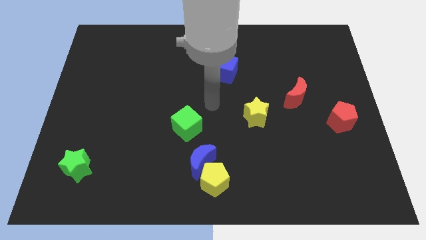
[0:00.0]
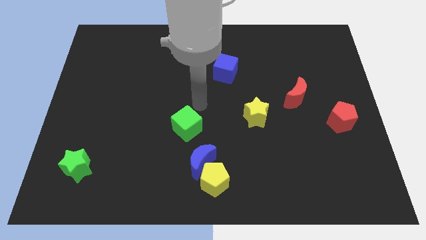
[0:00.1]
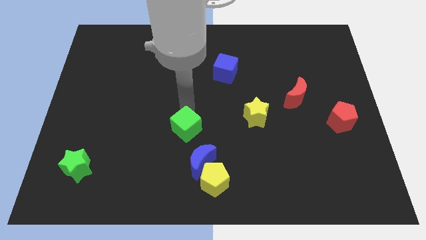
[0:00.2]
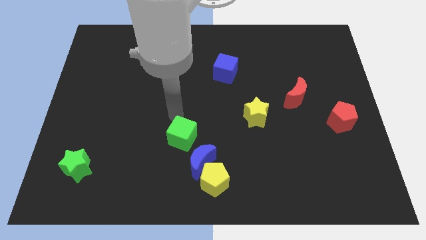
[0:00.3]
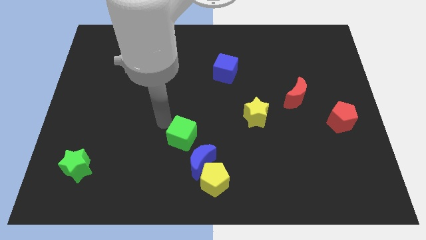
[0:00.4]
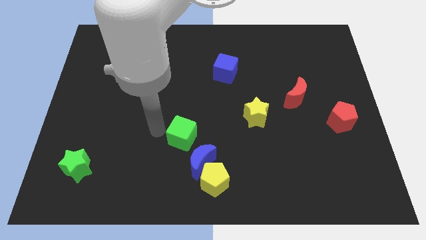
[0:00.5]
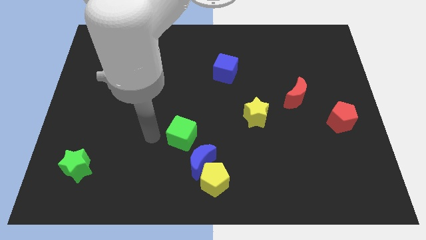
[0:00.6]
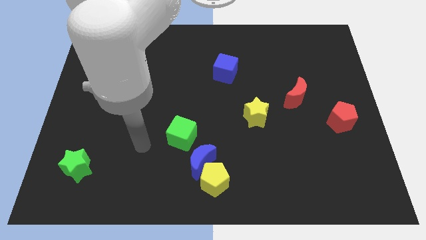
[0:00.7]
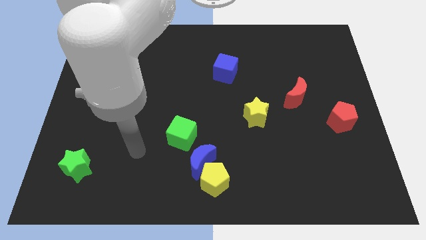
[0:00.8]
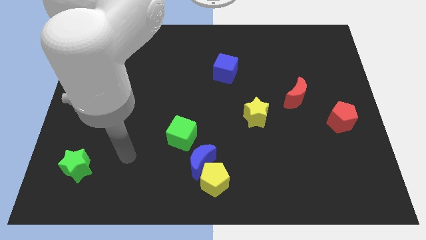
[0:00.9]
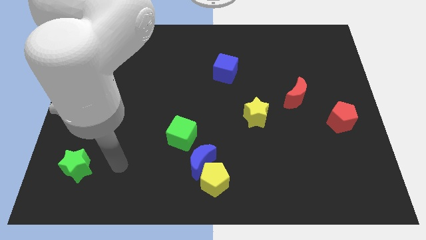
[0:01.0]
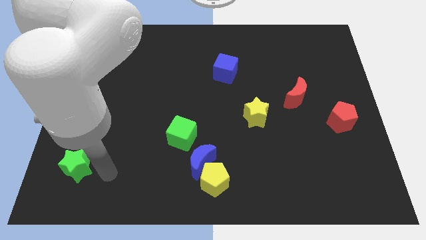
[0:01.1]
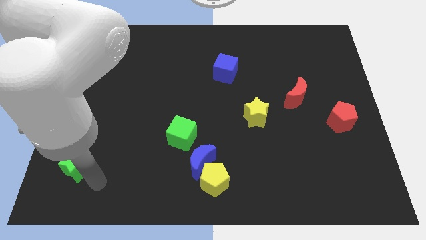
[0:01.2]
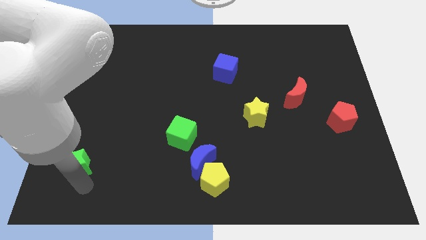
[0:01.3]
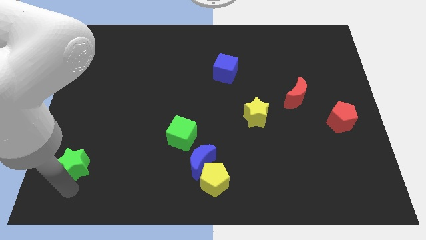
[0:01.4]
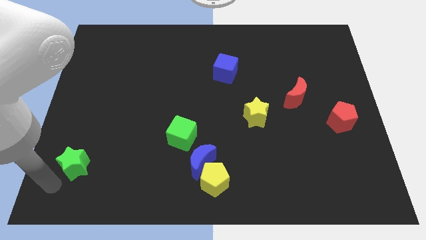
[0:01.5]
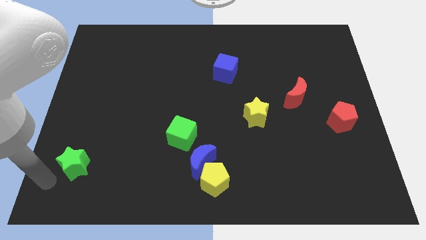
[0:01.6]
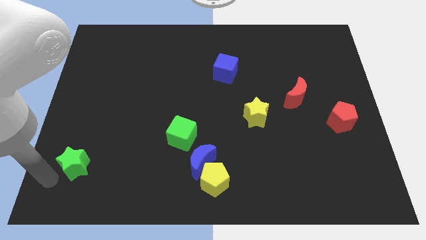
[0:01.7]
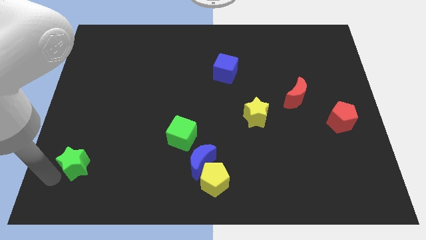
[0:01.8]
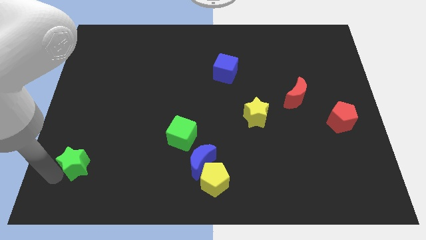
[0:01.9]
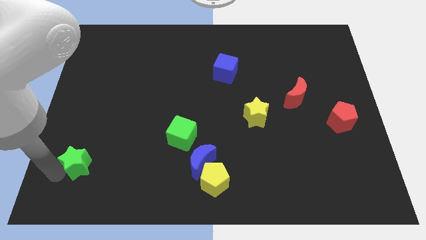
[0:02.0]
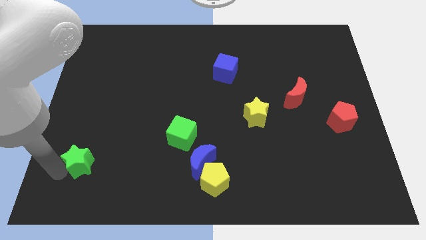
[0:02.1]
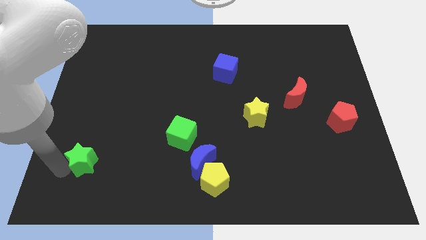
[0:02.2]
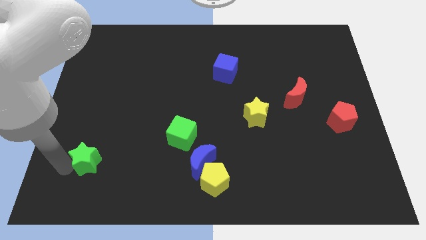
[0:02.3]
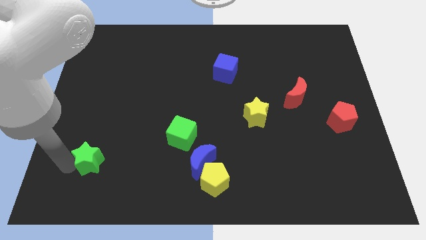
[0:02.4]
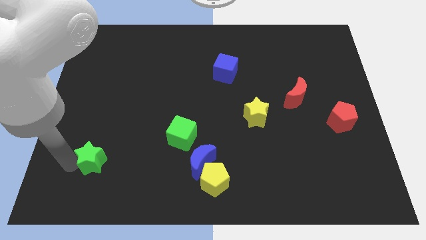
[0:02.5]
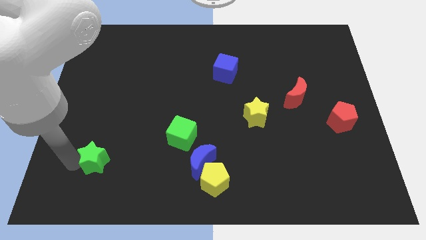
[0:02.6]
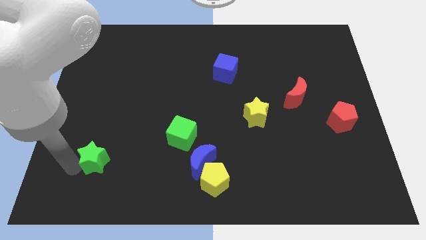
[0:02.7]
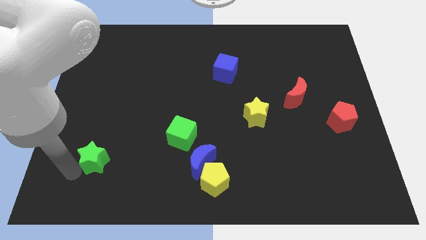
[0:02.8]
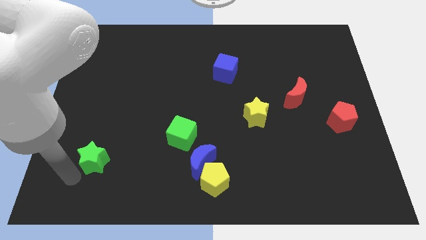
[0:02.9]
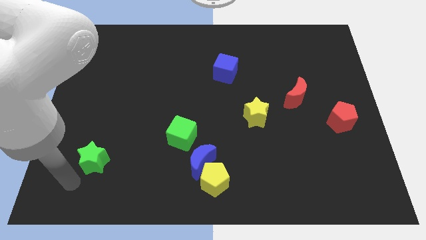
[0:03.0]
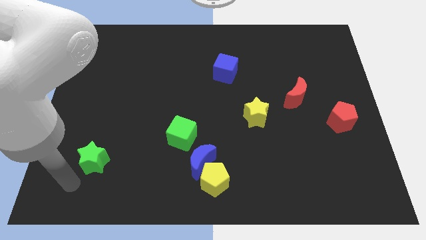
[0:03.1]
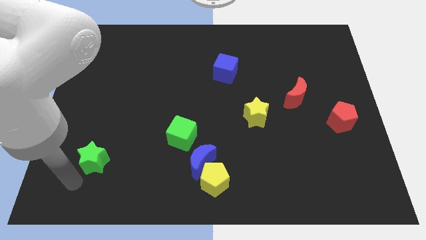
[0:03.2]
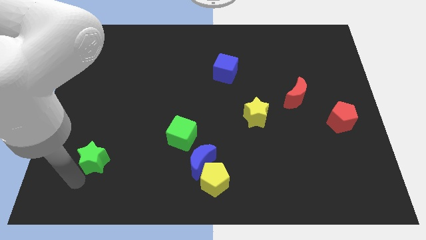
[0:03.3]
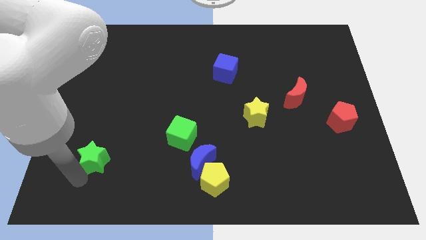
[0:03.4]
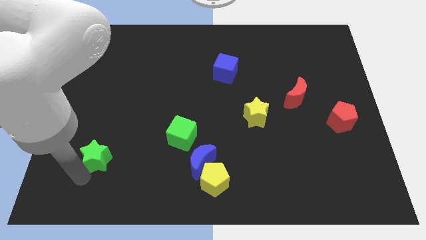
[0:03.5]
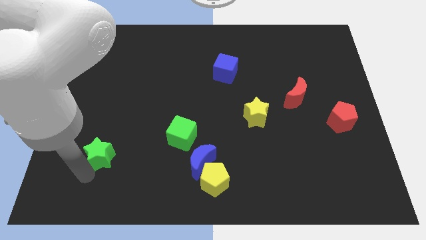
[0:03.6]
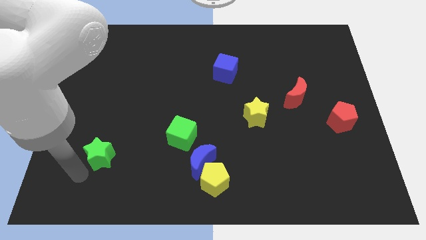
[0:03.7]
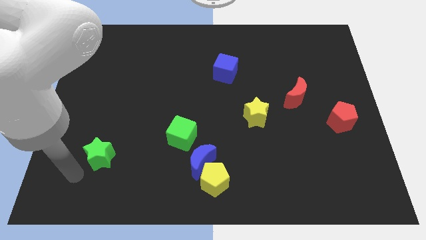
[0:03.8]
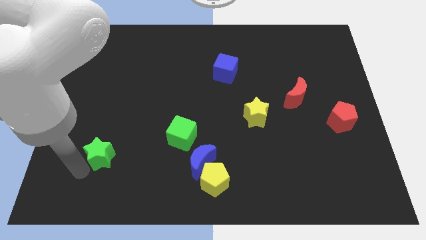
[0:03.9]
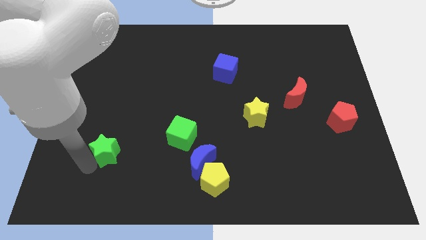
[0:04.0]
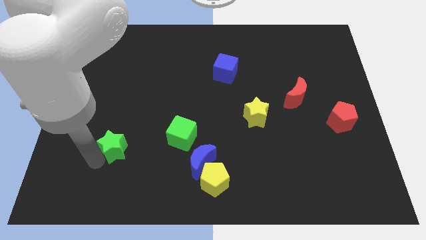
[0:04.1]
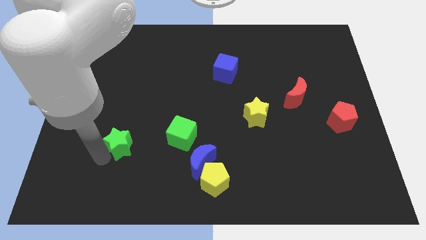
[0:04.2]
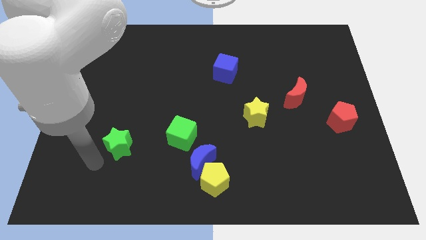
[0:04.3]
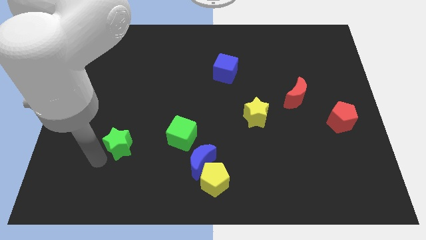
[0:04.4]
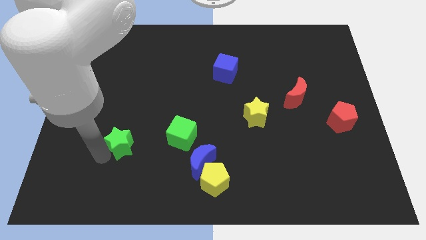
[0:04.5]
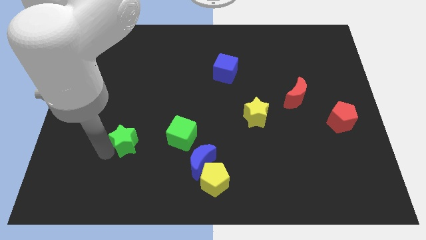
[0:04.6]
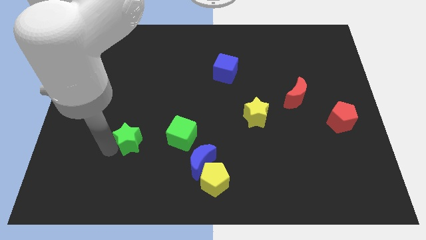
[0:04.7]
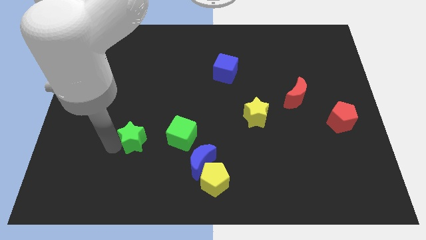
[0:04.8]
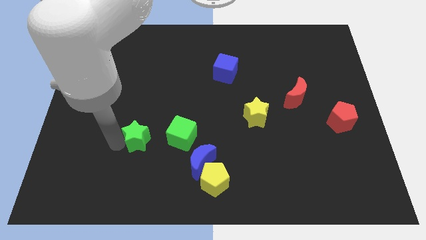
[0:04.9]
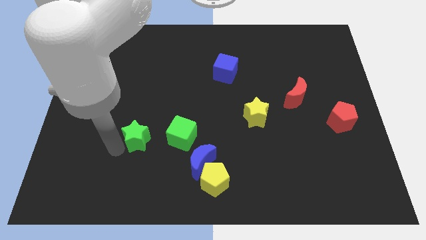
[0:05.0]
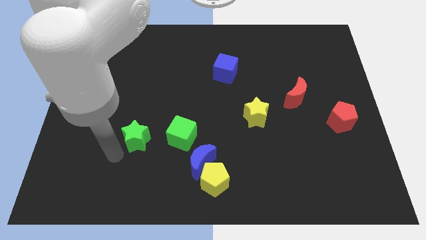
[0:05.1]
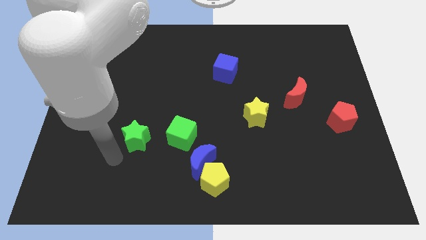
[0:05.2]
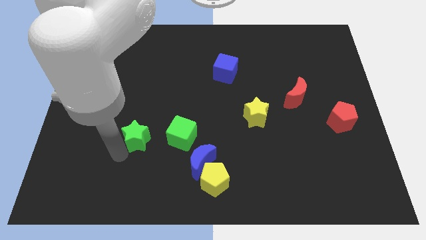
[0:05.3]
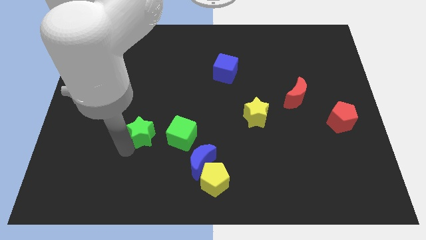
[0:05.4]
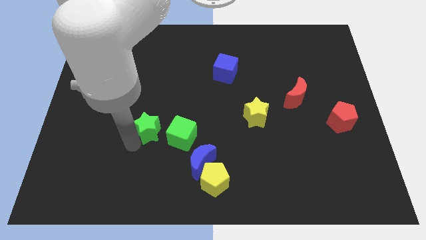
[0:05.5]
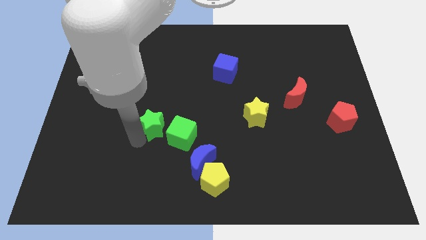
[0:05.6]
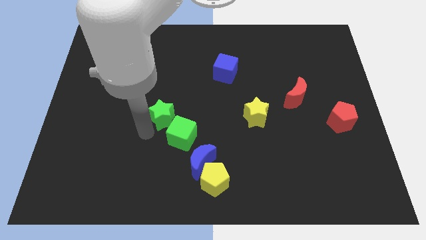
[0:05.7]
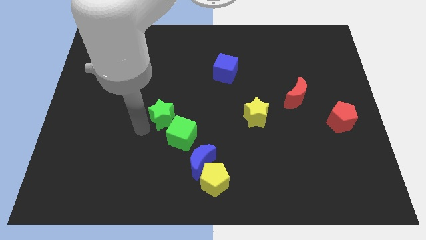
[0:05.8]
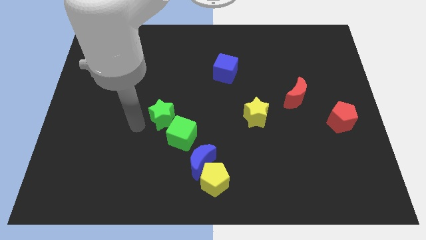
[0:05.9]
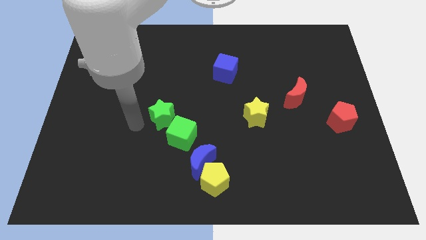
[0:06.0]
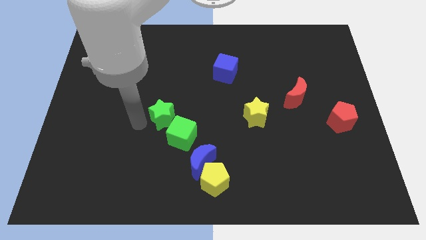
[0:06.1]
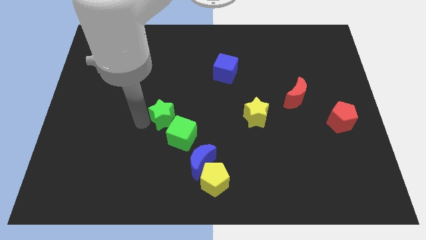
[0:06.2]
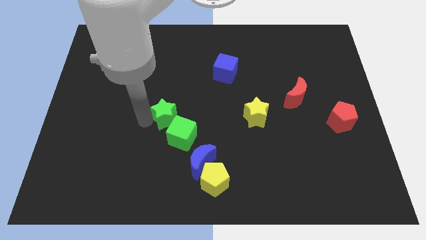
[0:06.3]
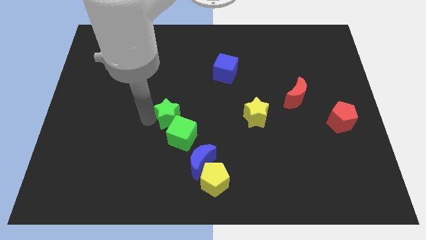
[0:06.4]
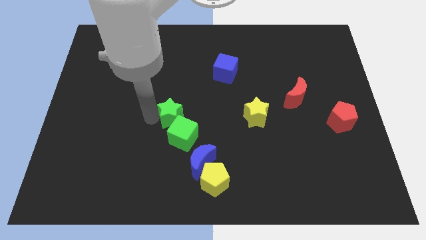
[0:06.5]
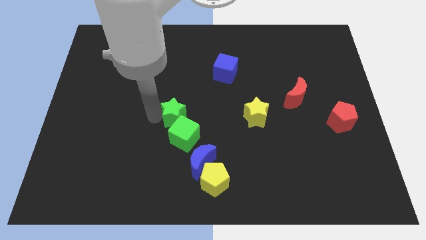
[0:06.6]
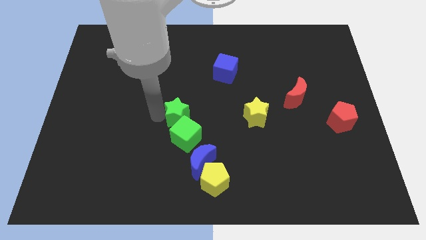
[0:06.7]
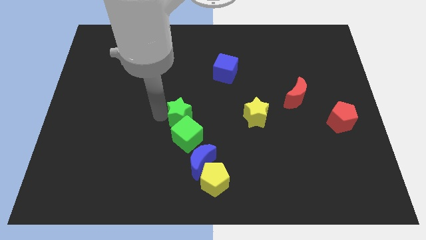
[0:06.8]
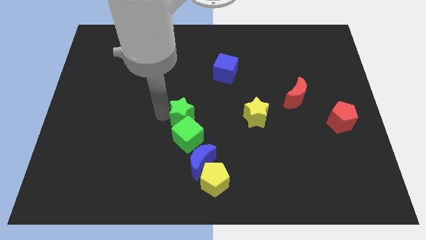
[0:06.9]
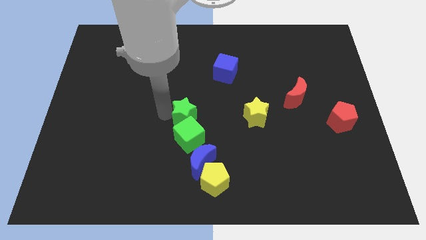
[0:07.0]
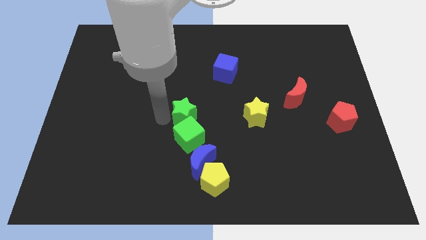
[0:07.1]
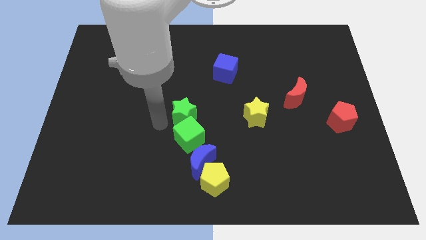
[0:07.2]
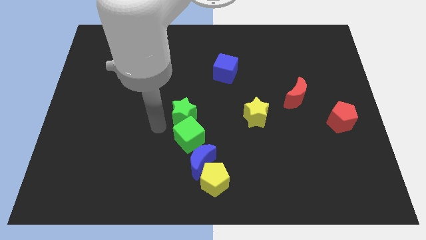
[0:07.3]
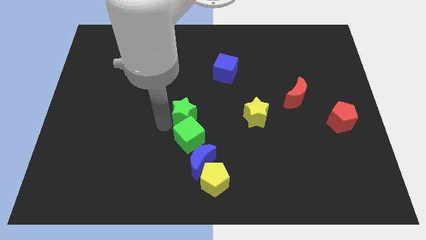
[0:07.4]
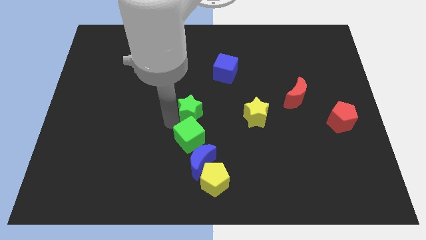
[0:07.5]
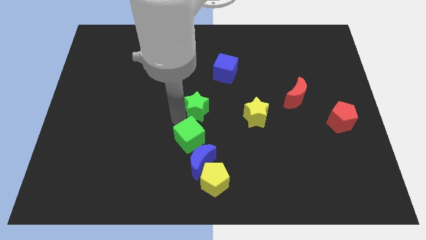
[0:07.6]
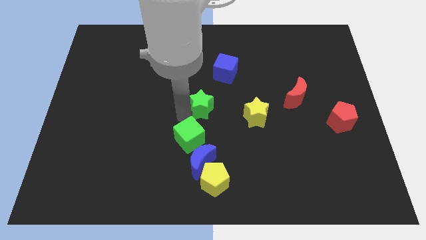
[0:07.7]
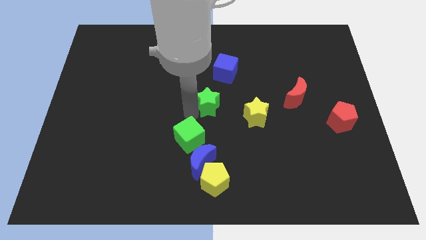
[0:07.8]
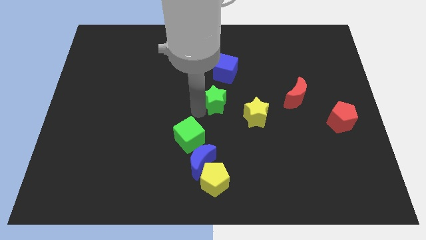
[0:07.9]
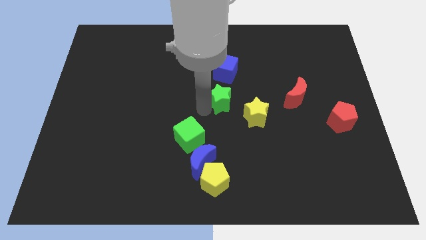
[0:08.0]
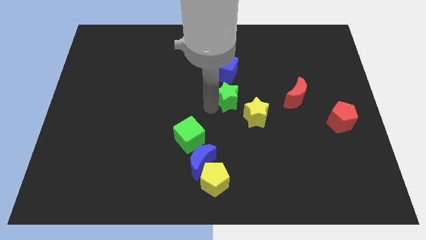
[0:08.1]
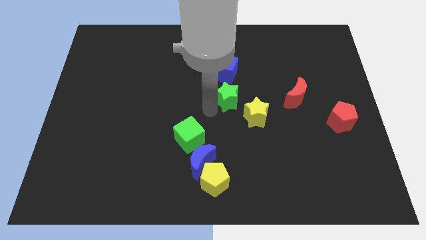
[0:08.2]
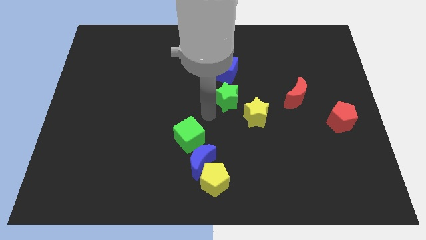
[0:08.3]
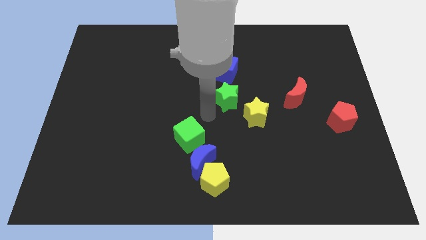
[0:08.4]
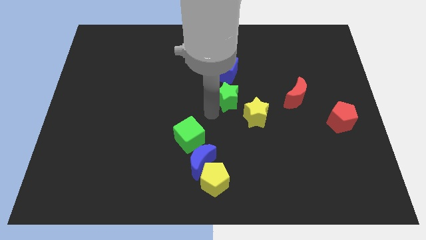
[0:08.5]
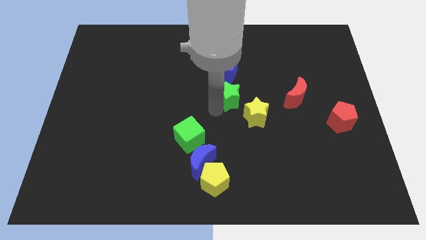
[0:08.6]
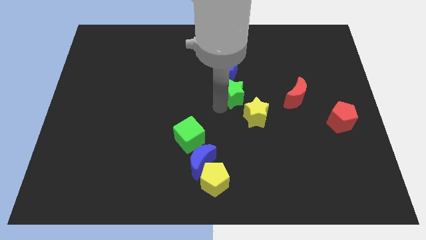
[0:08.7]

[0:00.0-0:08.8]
slide the green star to the top of the yellow star
